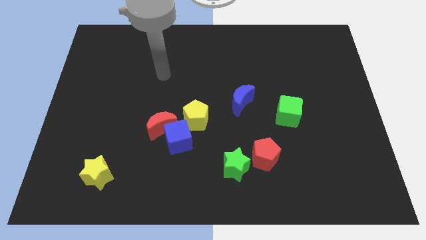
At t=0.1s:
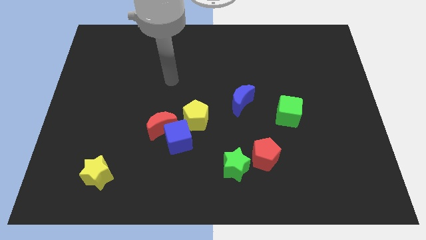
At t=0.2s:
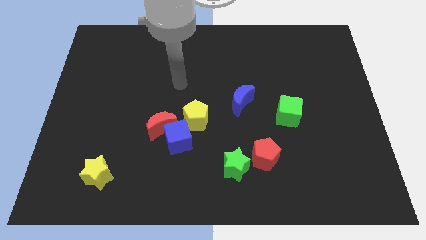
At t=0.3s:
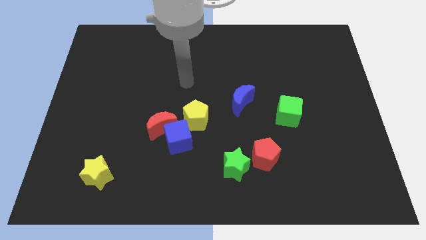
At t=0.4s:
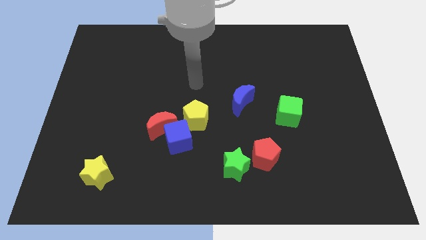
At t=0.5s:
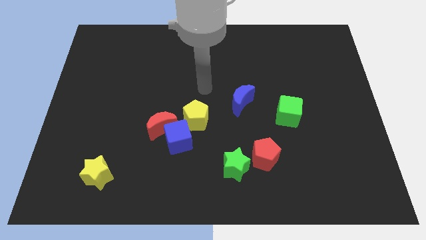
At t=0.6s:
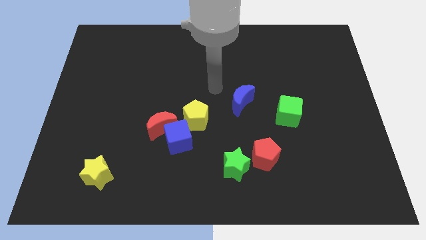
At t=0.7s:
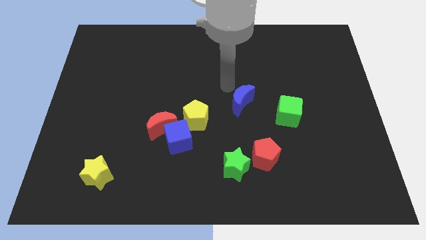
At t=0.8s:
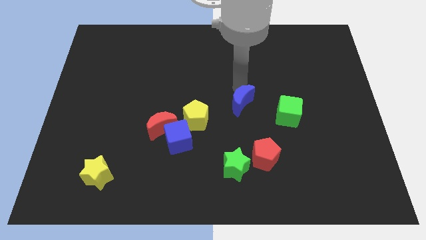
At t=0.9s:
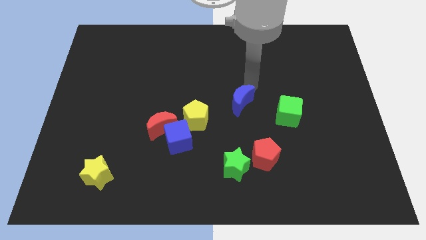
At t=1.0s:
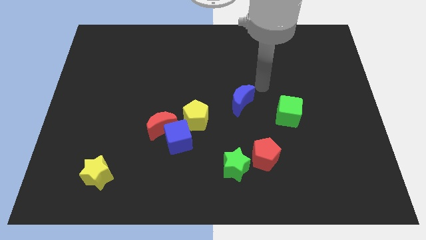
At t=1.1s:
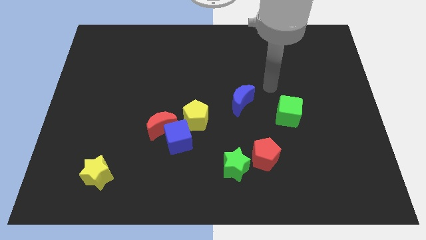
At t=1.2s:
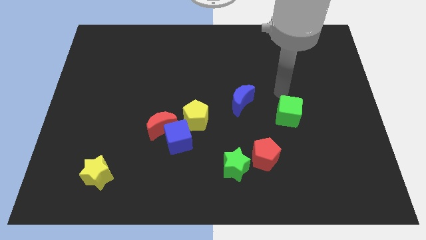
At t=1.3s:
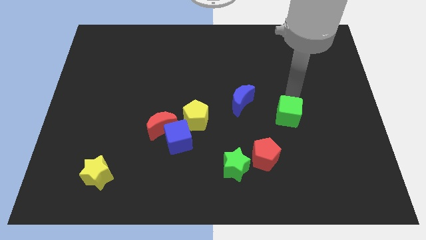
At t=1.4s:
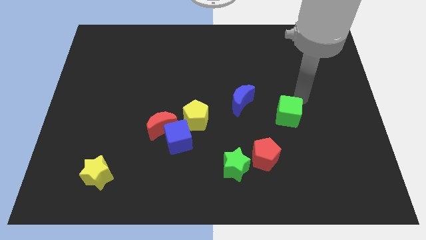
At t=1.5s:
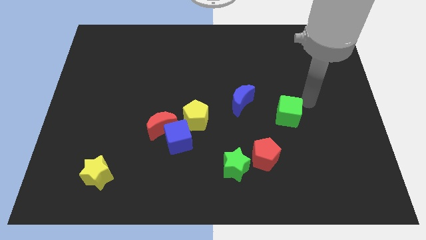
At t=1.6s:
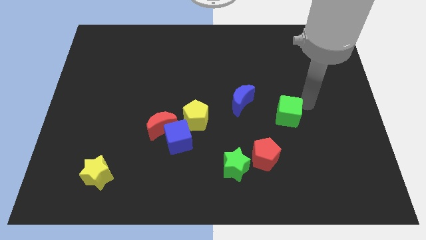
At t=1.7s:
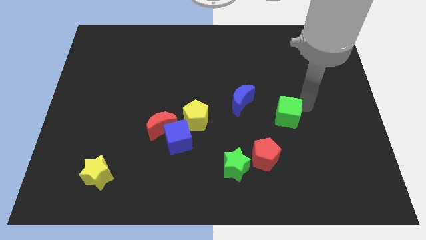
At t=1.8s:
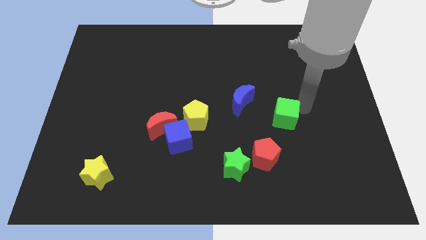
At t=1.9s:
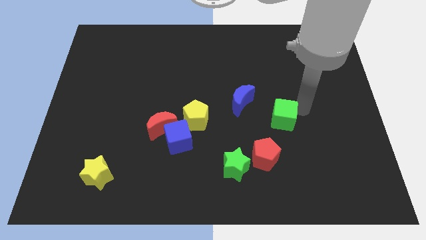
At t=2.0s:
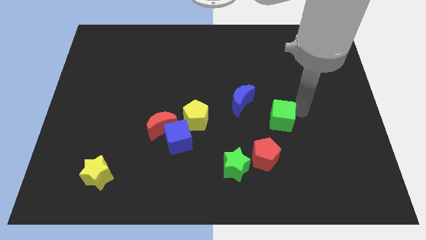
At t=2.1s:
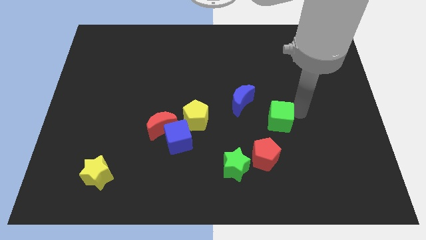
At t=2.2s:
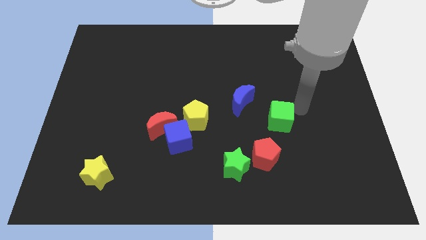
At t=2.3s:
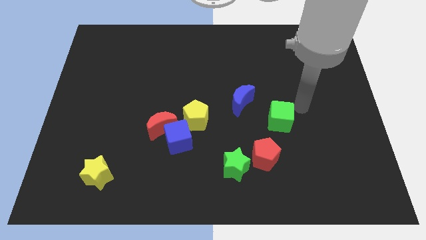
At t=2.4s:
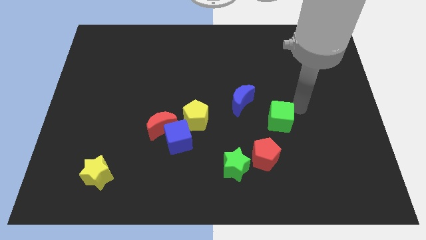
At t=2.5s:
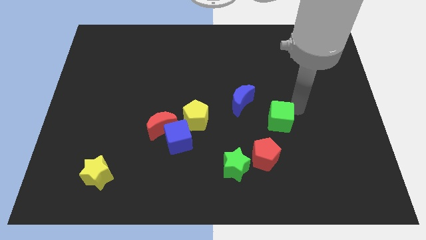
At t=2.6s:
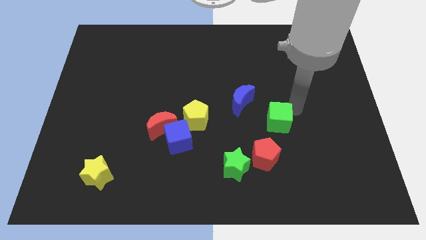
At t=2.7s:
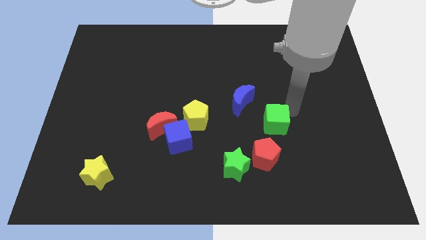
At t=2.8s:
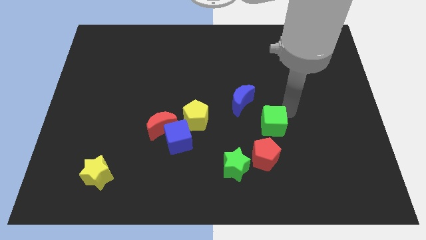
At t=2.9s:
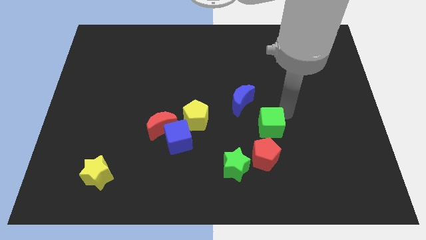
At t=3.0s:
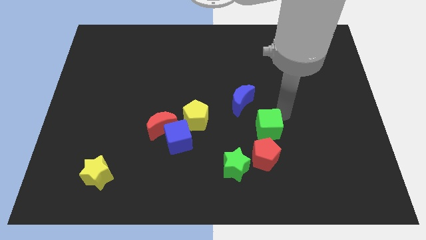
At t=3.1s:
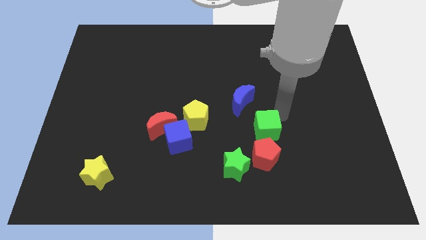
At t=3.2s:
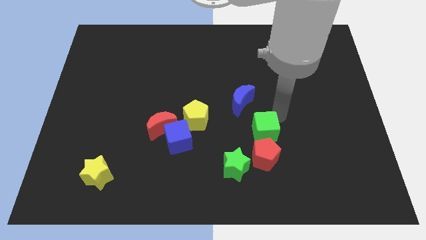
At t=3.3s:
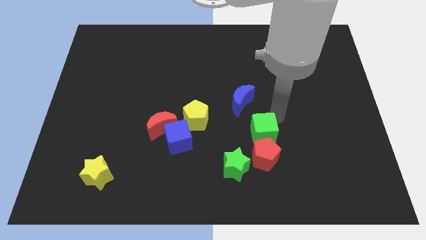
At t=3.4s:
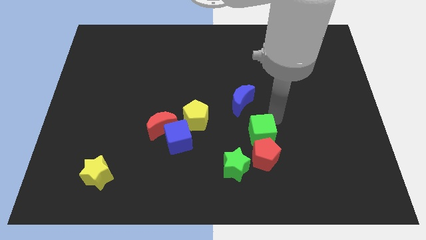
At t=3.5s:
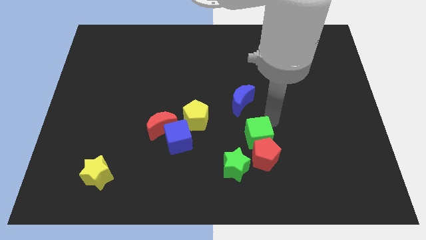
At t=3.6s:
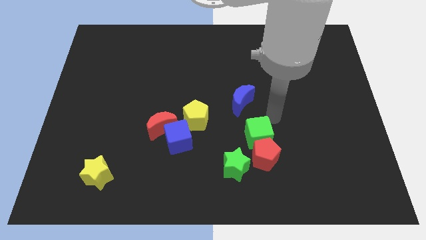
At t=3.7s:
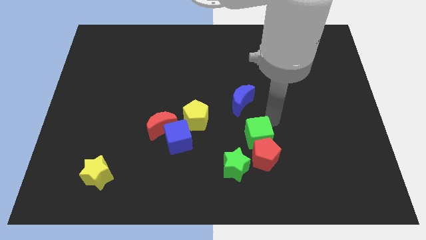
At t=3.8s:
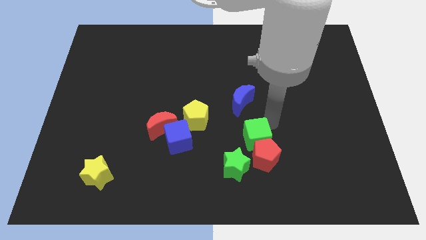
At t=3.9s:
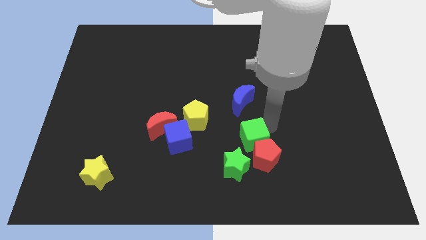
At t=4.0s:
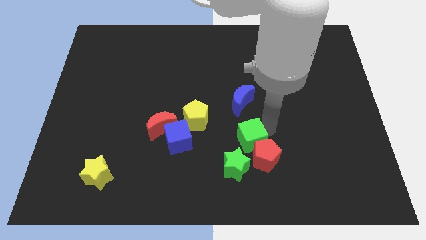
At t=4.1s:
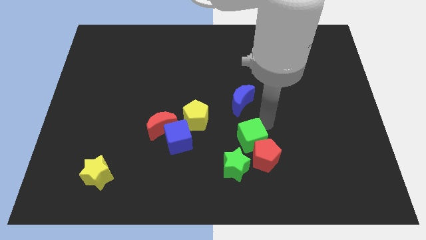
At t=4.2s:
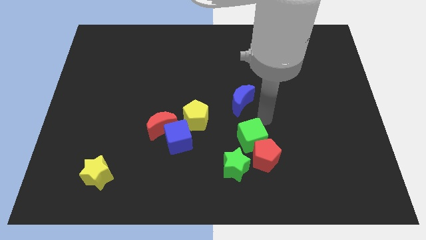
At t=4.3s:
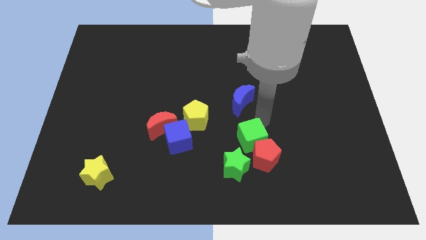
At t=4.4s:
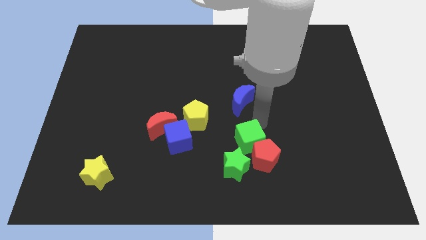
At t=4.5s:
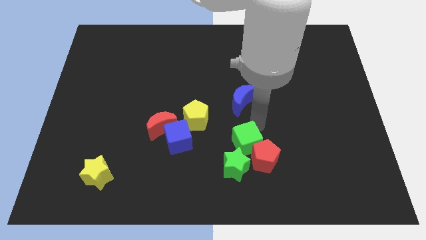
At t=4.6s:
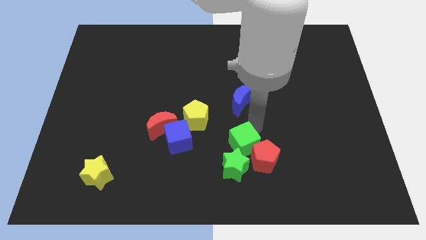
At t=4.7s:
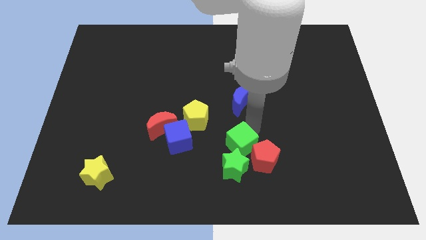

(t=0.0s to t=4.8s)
move the green cube close to the green star

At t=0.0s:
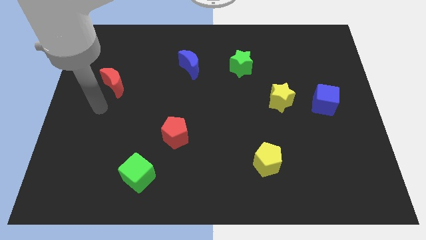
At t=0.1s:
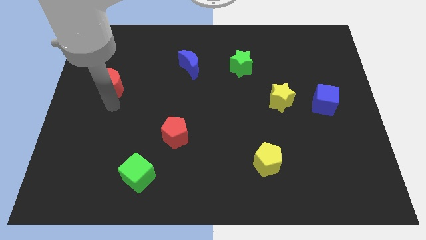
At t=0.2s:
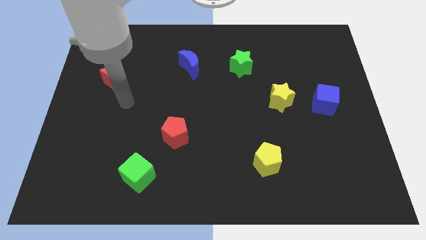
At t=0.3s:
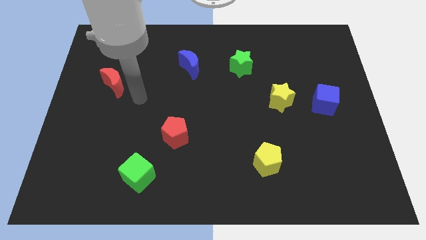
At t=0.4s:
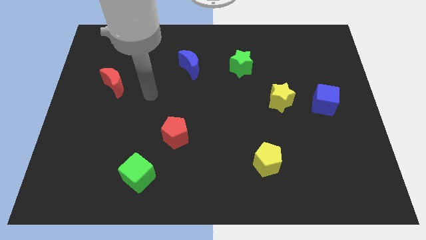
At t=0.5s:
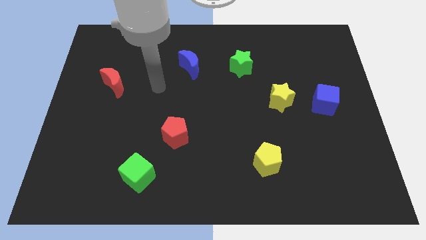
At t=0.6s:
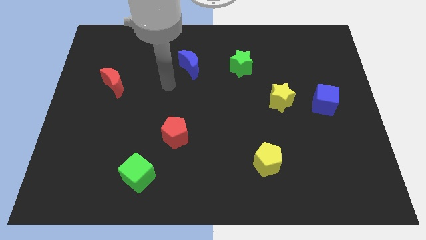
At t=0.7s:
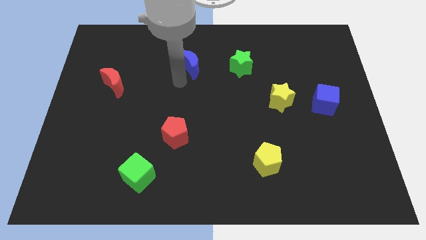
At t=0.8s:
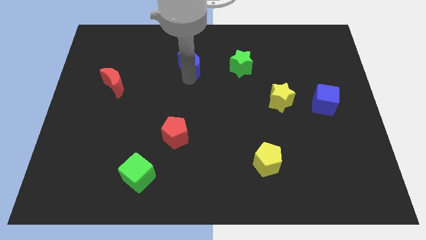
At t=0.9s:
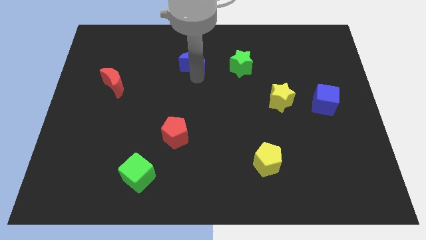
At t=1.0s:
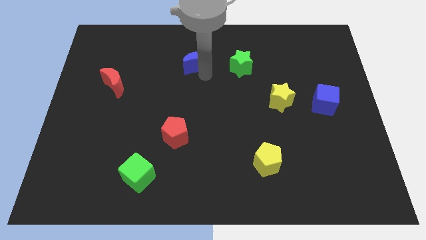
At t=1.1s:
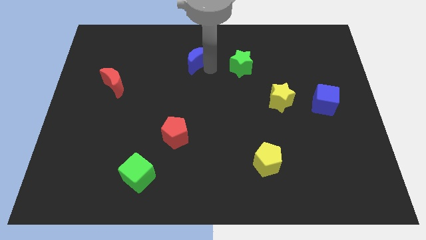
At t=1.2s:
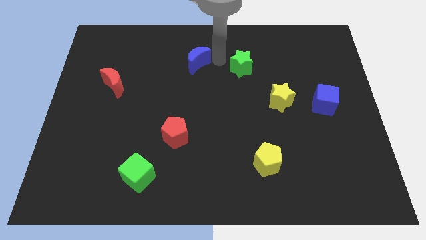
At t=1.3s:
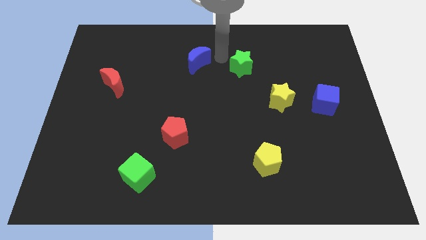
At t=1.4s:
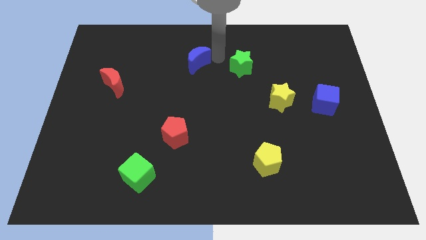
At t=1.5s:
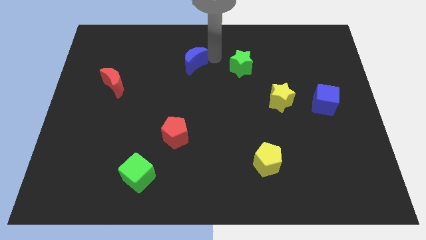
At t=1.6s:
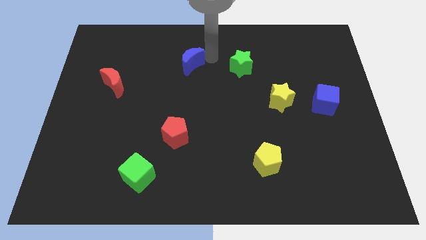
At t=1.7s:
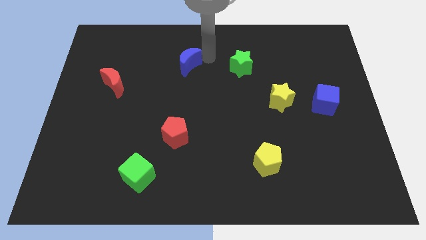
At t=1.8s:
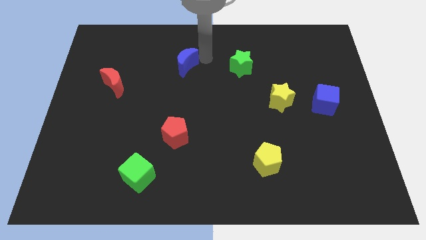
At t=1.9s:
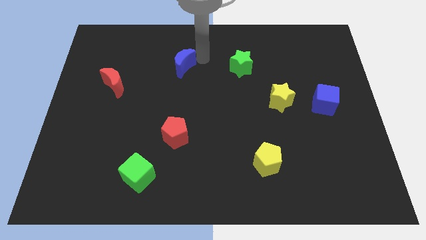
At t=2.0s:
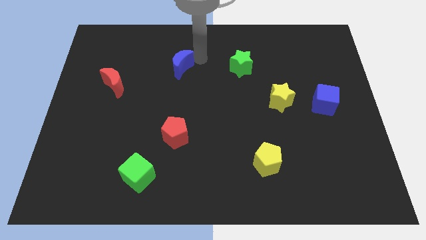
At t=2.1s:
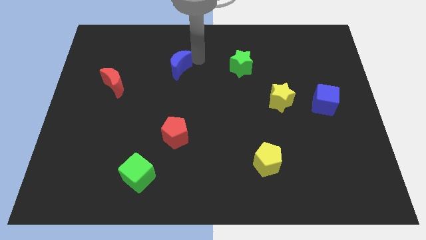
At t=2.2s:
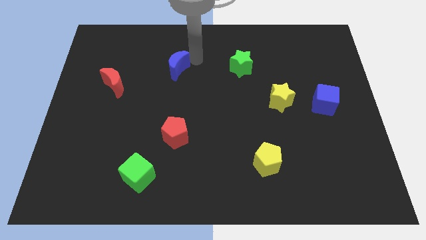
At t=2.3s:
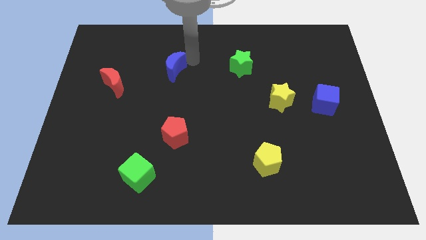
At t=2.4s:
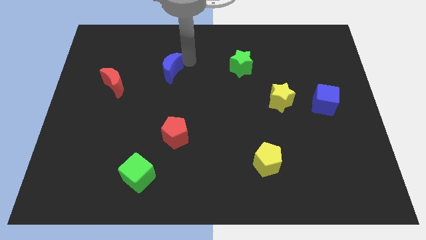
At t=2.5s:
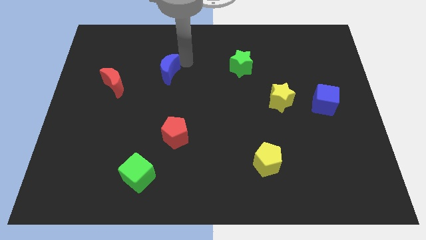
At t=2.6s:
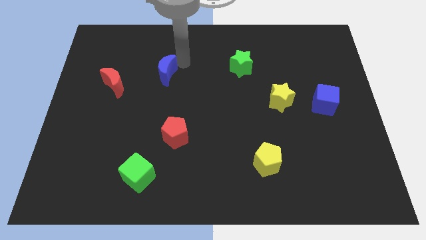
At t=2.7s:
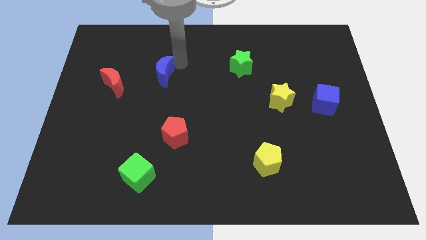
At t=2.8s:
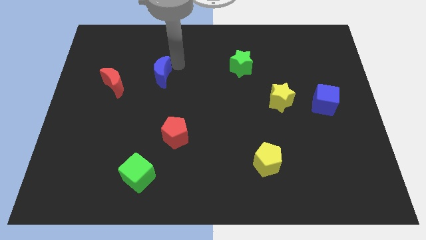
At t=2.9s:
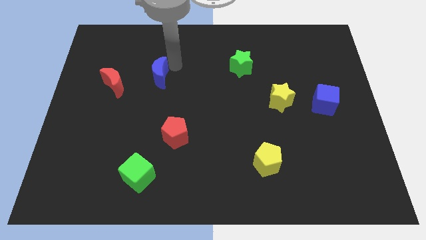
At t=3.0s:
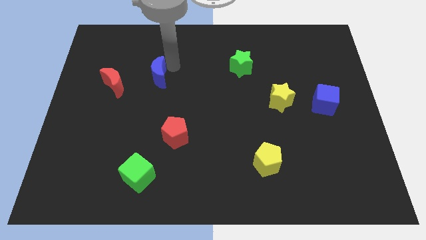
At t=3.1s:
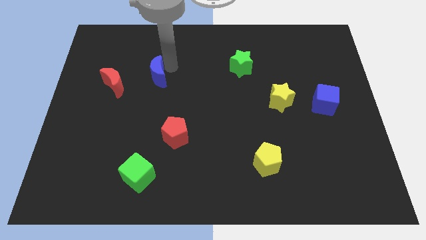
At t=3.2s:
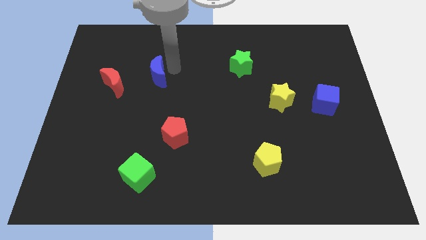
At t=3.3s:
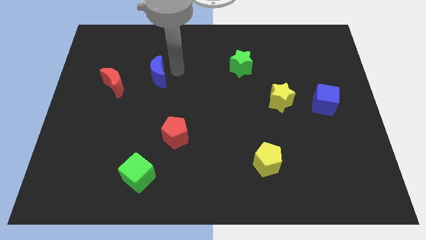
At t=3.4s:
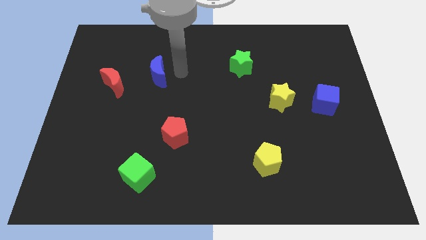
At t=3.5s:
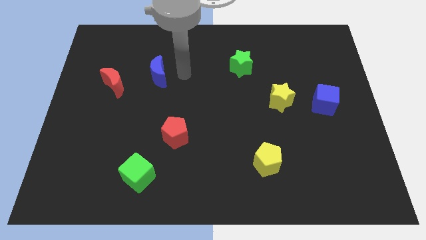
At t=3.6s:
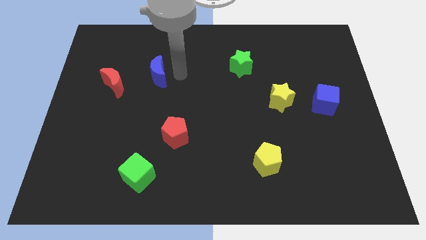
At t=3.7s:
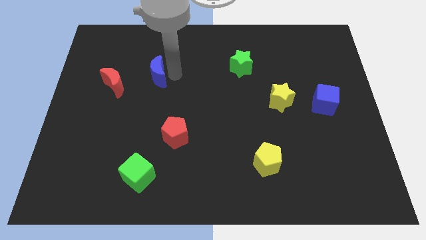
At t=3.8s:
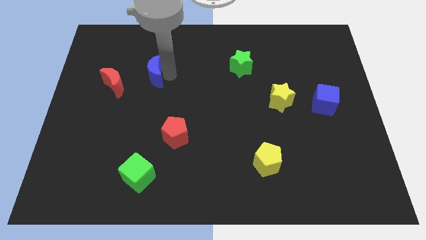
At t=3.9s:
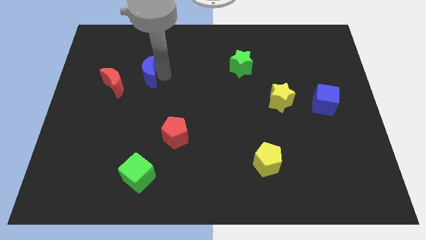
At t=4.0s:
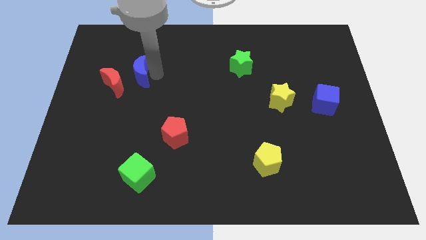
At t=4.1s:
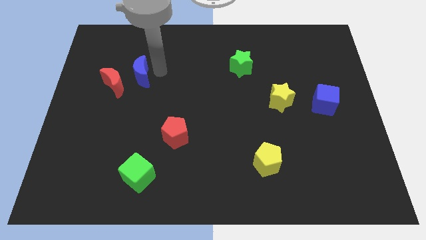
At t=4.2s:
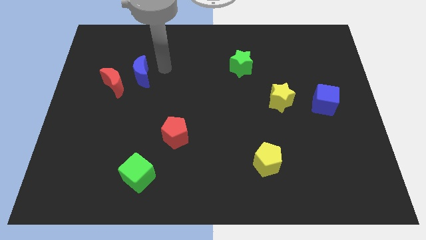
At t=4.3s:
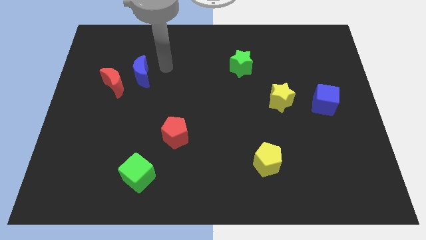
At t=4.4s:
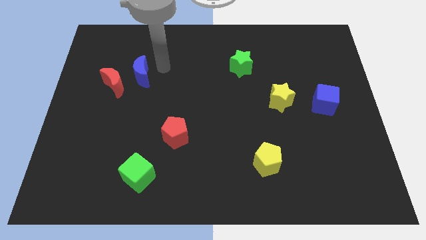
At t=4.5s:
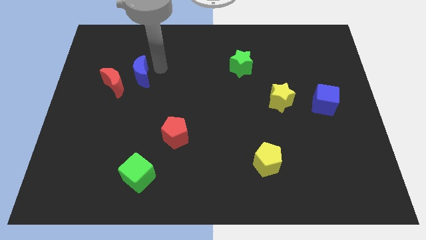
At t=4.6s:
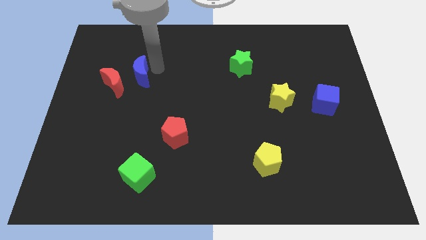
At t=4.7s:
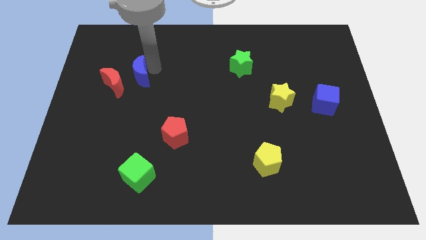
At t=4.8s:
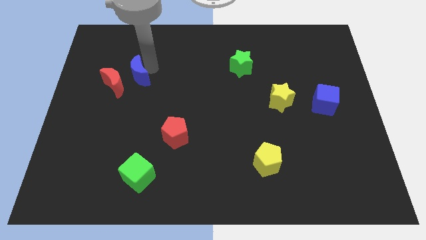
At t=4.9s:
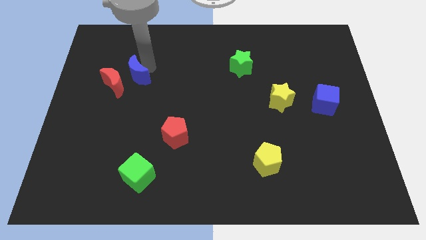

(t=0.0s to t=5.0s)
slide the blue moon towards the red moon
